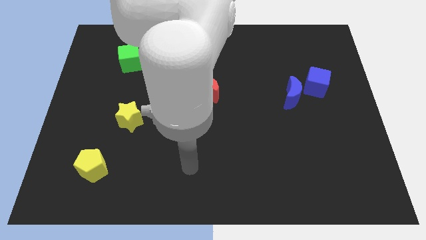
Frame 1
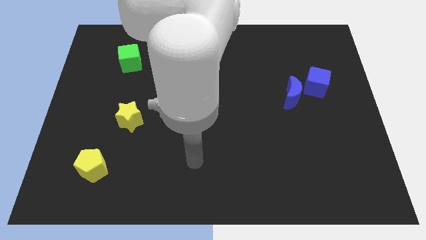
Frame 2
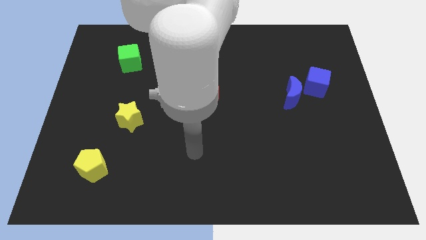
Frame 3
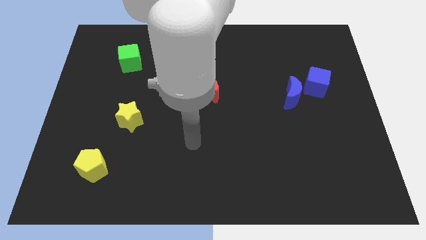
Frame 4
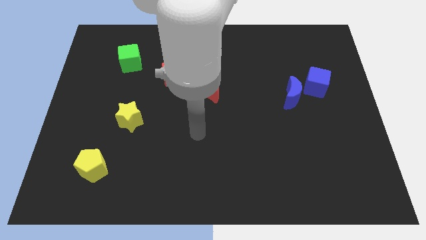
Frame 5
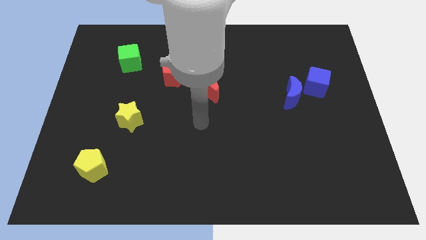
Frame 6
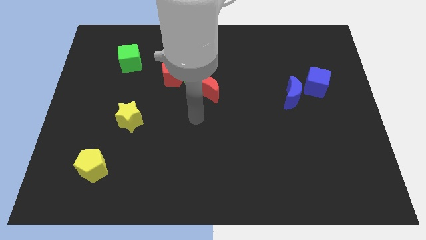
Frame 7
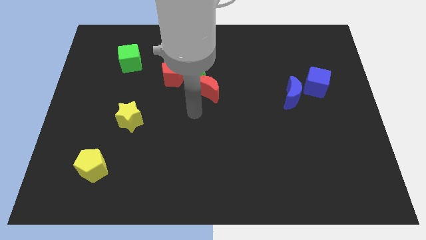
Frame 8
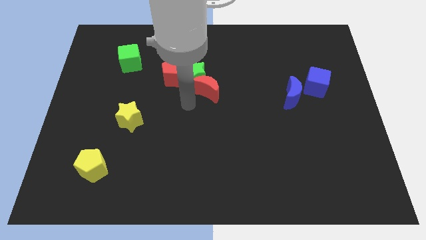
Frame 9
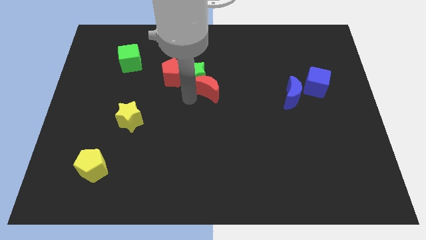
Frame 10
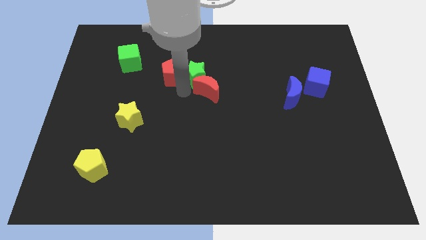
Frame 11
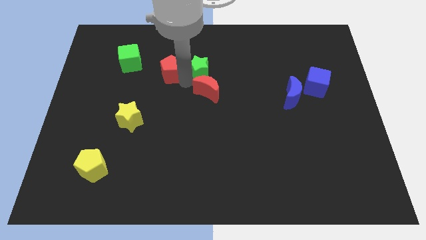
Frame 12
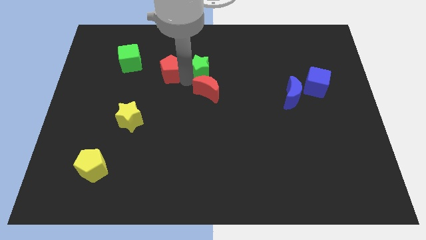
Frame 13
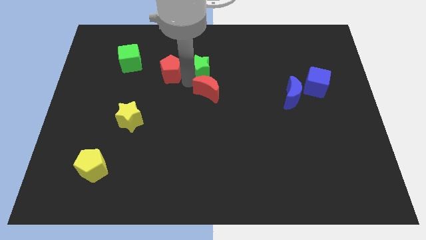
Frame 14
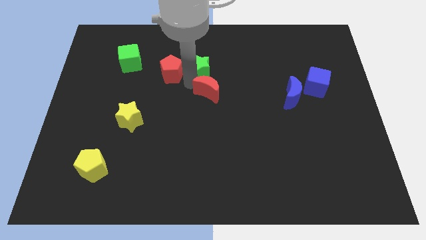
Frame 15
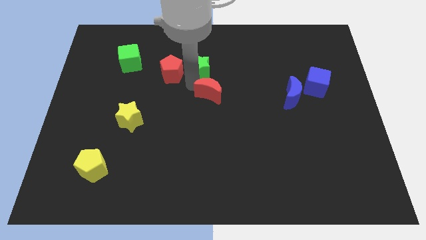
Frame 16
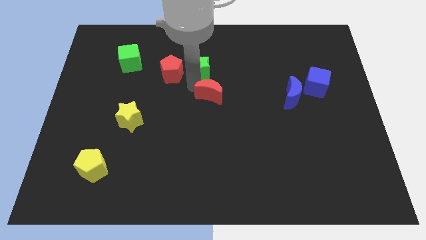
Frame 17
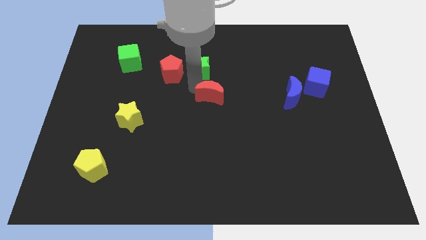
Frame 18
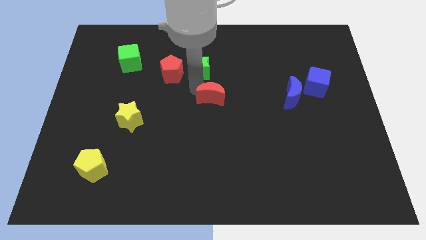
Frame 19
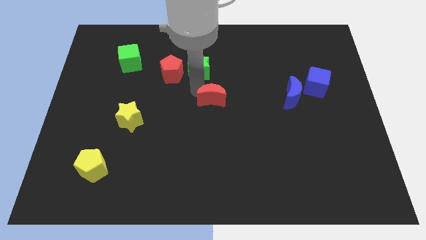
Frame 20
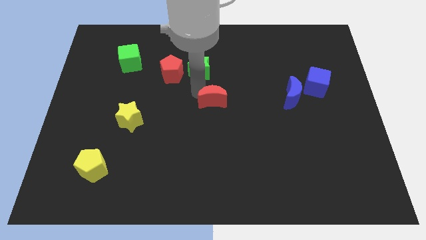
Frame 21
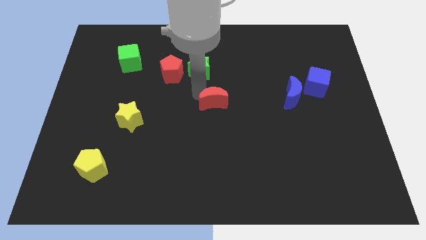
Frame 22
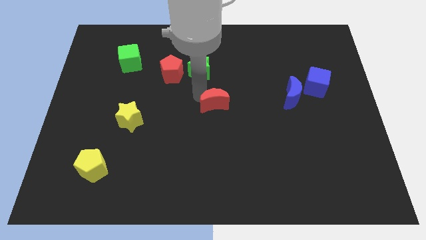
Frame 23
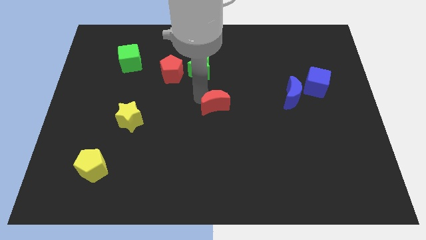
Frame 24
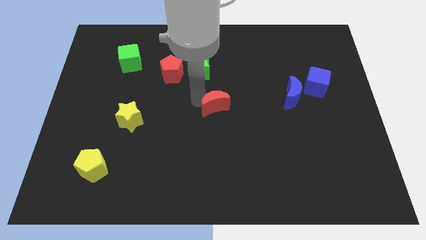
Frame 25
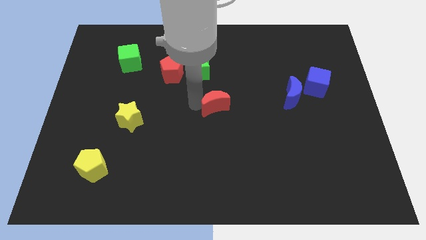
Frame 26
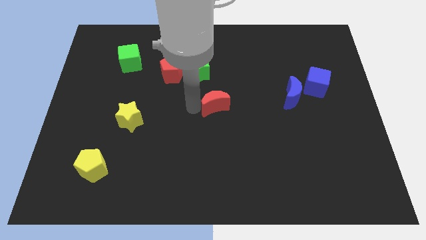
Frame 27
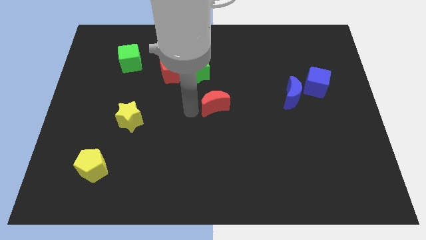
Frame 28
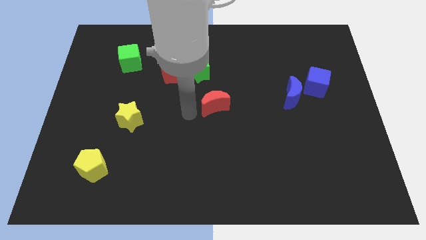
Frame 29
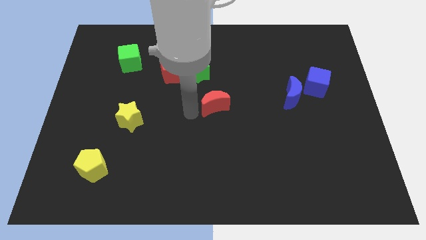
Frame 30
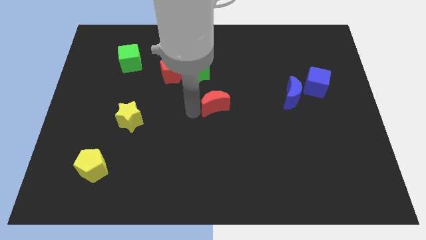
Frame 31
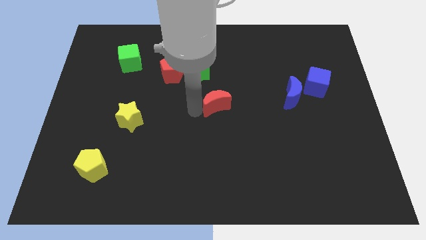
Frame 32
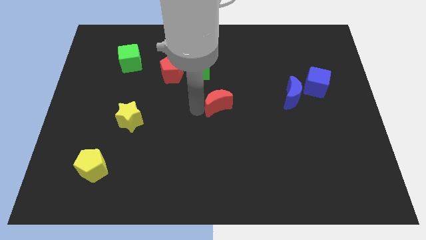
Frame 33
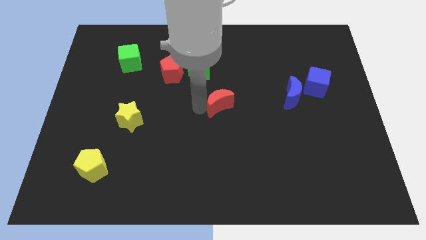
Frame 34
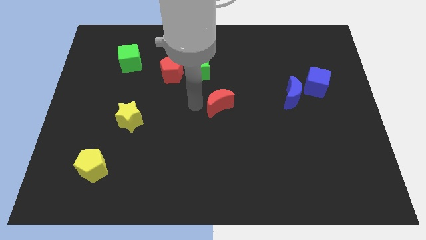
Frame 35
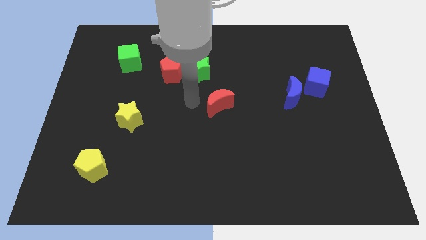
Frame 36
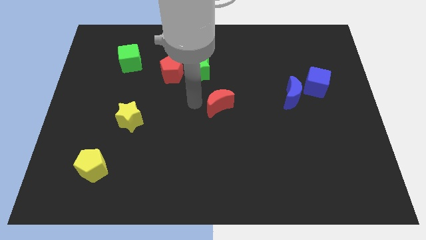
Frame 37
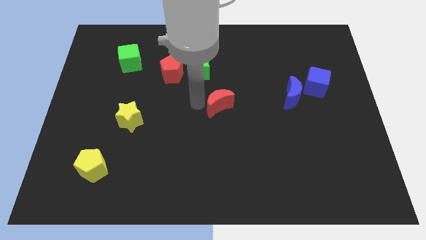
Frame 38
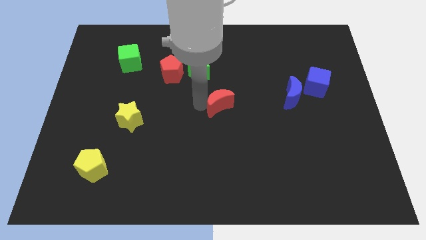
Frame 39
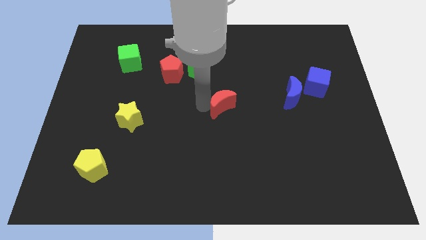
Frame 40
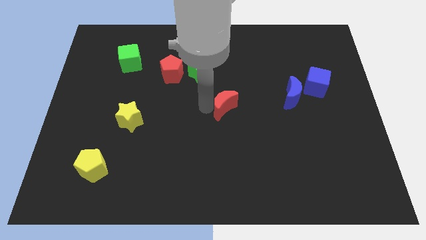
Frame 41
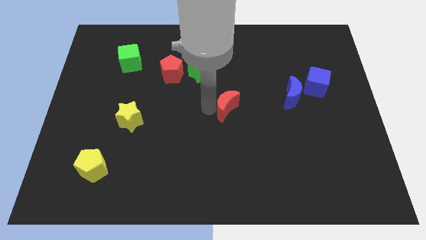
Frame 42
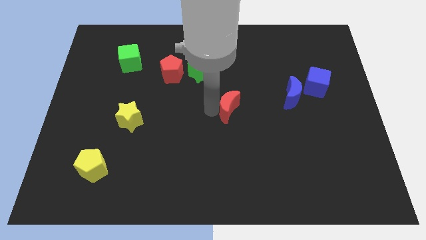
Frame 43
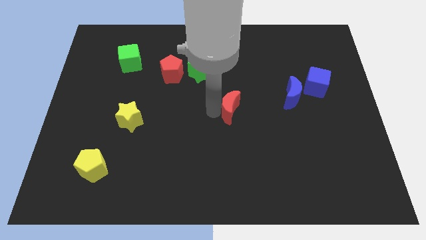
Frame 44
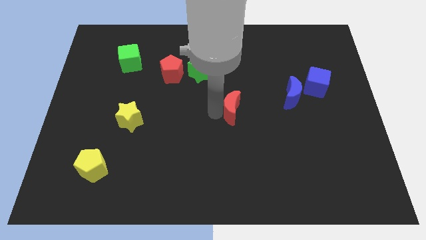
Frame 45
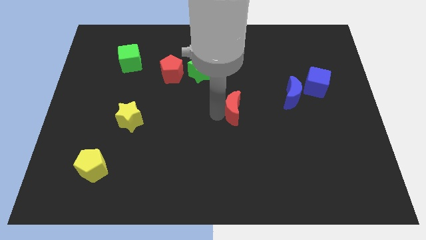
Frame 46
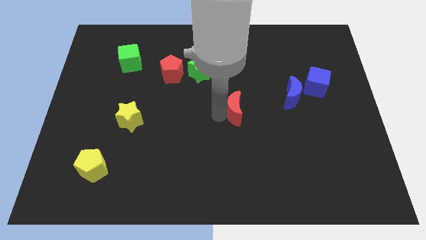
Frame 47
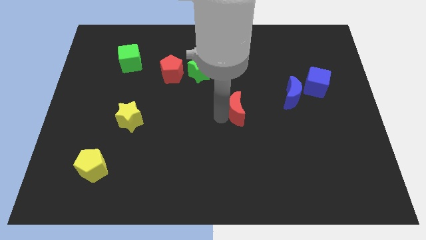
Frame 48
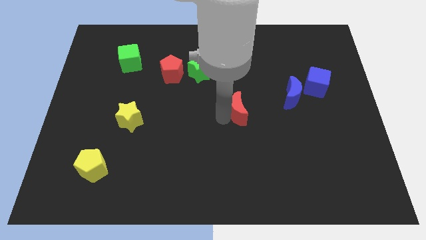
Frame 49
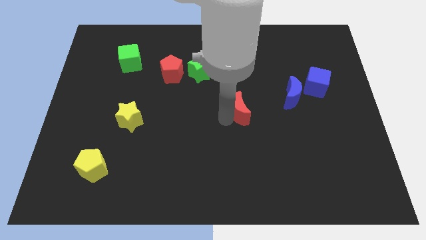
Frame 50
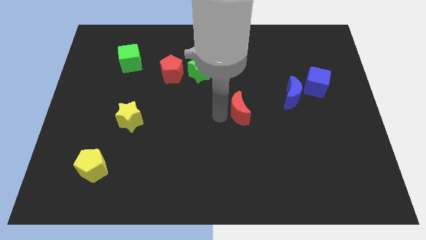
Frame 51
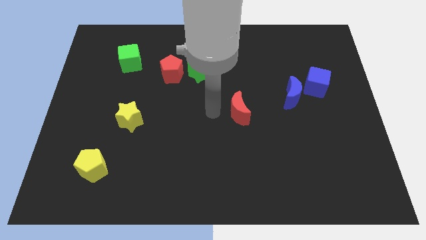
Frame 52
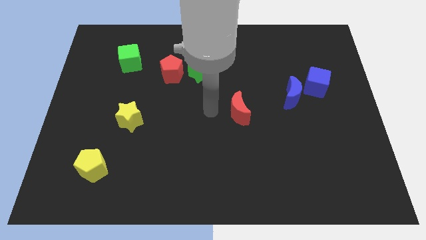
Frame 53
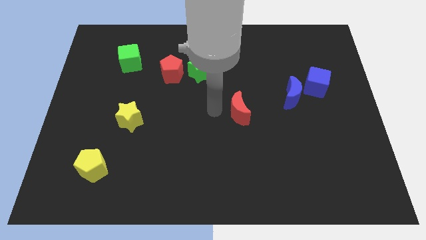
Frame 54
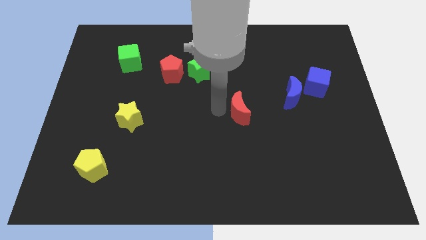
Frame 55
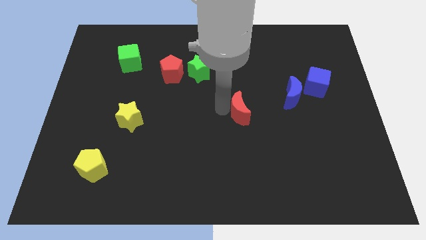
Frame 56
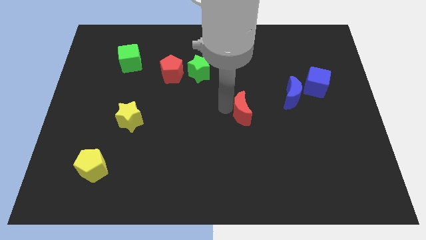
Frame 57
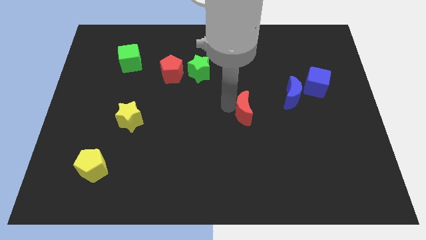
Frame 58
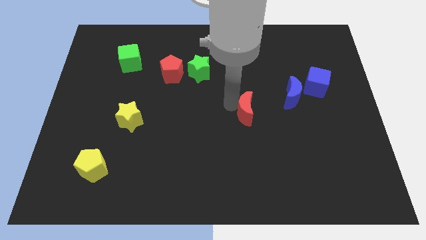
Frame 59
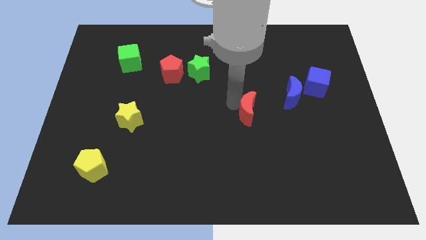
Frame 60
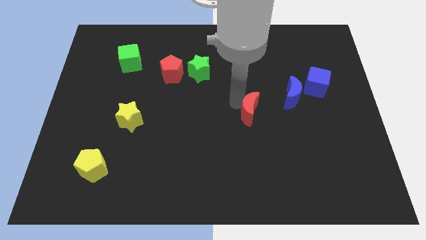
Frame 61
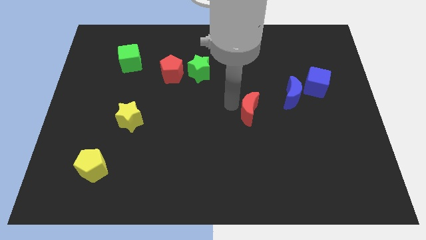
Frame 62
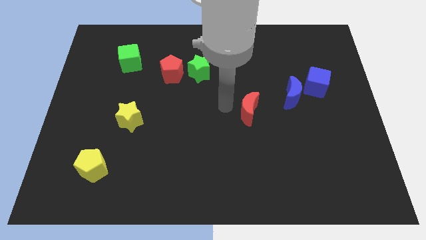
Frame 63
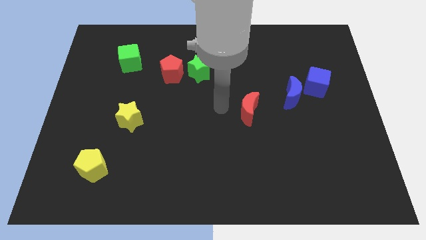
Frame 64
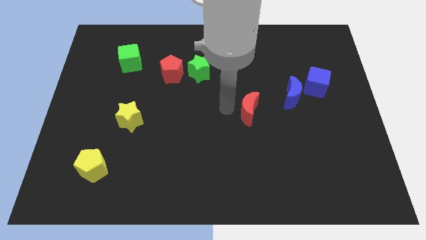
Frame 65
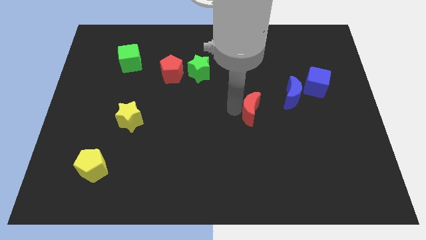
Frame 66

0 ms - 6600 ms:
move the red moon to the bottom left of the blue moon

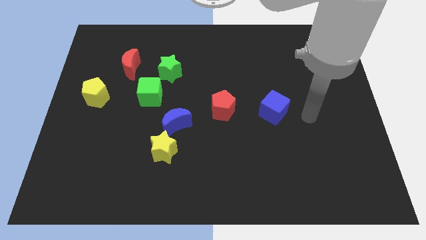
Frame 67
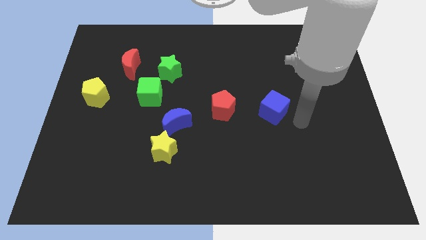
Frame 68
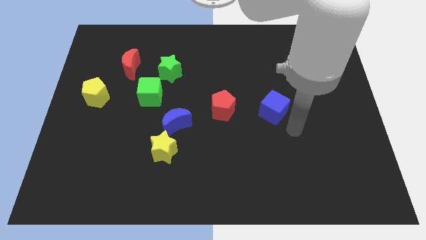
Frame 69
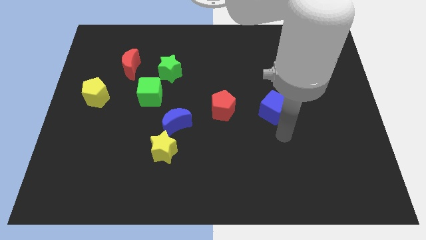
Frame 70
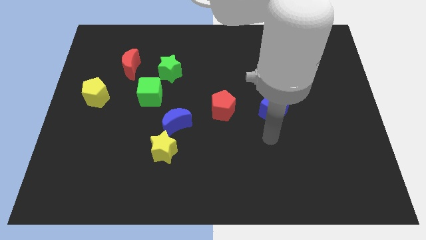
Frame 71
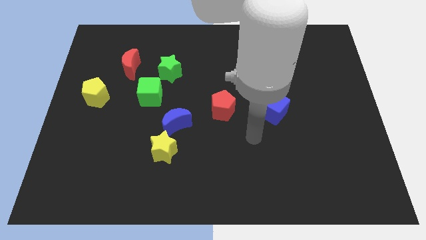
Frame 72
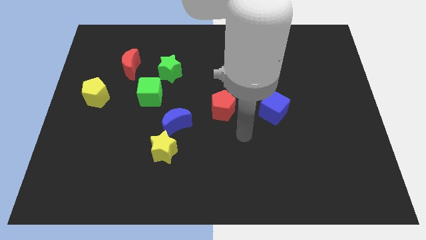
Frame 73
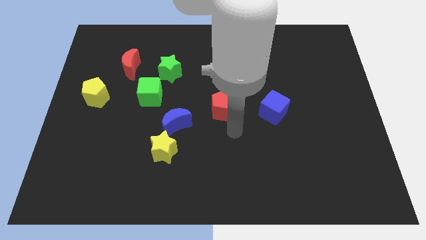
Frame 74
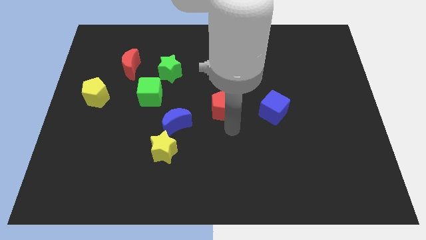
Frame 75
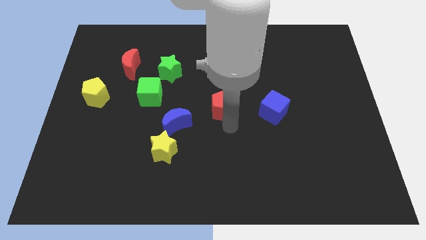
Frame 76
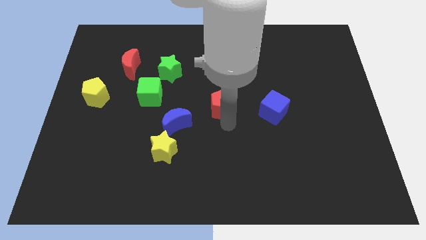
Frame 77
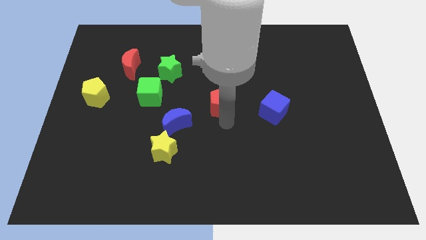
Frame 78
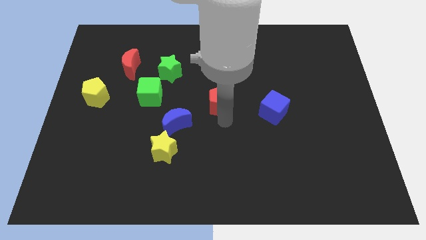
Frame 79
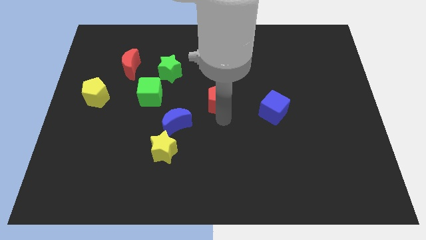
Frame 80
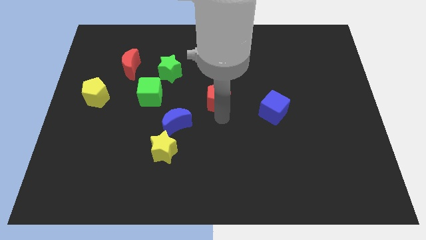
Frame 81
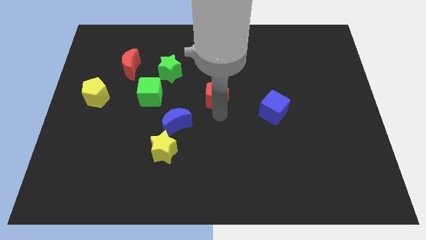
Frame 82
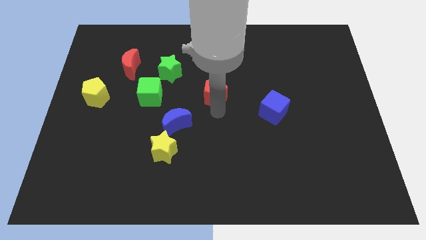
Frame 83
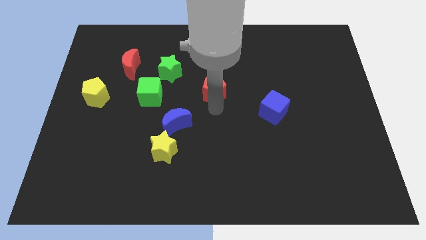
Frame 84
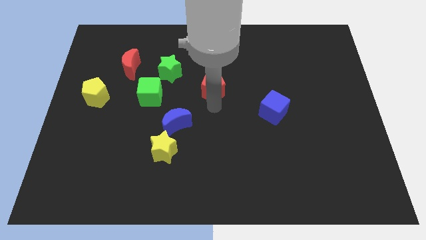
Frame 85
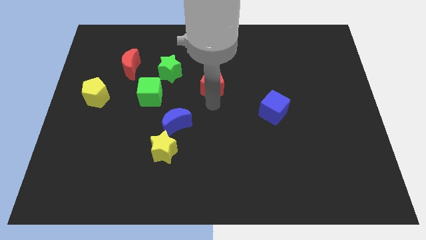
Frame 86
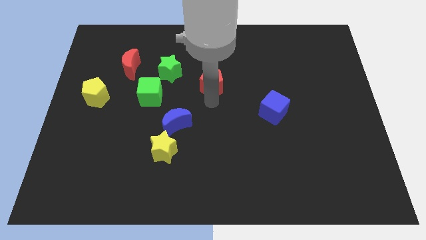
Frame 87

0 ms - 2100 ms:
put the red pentagon right of the green star
